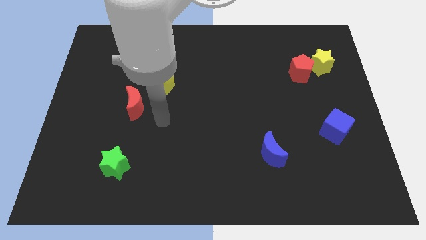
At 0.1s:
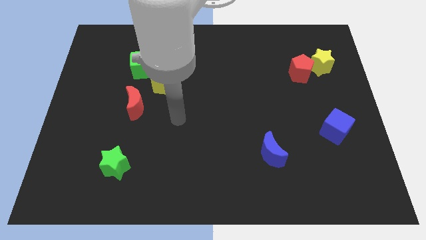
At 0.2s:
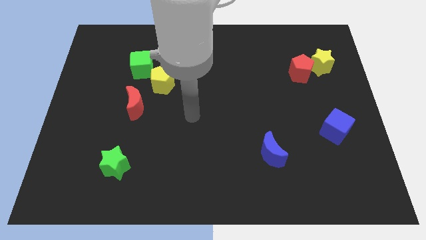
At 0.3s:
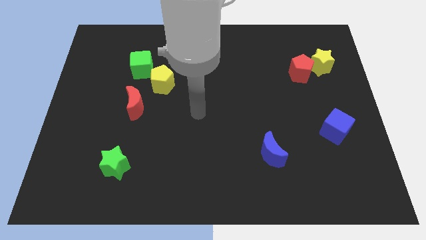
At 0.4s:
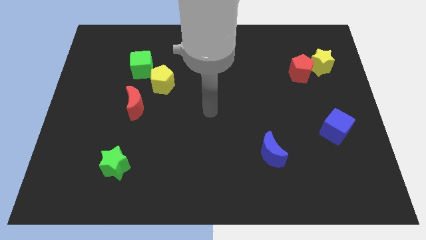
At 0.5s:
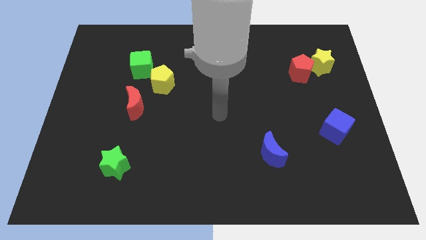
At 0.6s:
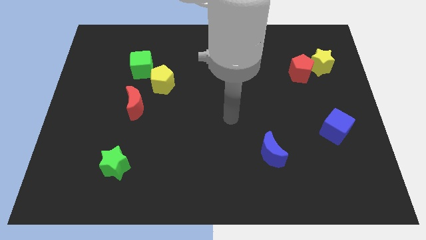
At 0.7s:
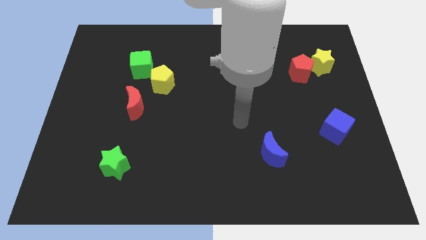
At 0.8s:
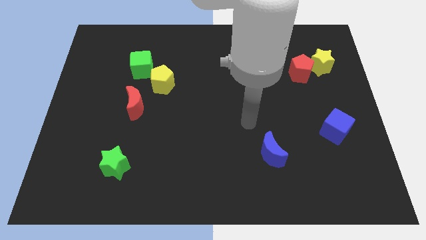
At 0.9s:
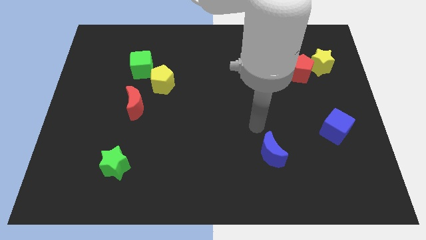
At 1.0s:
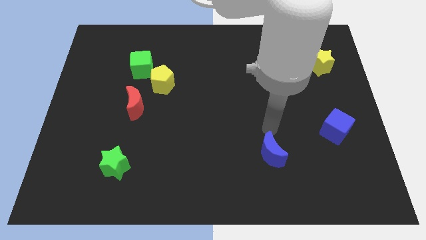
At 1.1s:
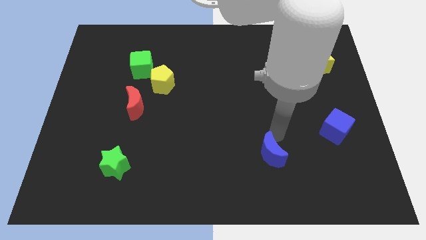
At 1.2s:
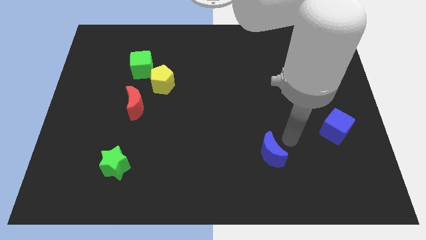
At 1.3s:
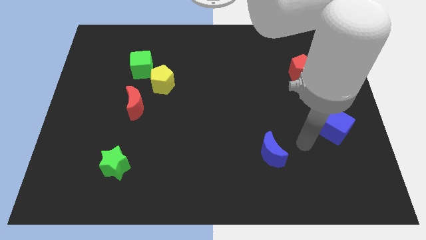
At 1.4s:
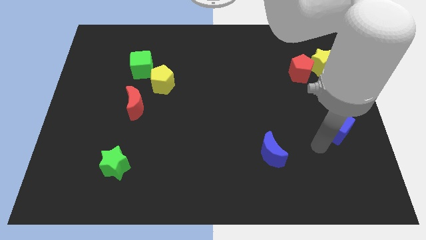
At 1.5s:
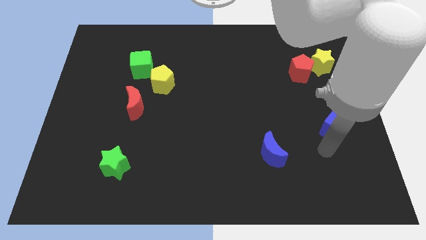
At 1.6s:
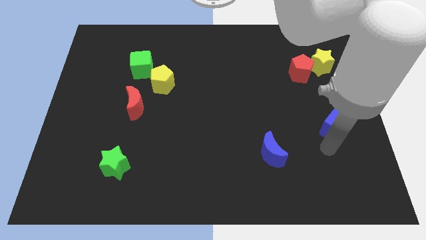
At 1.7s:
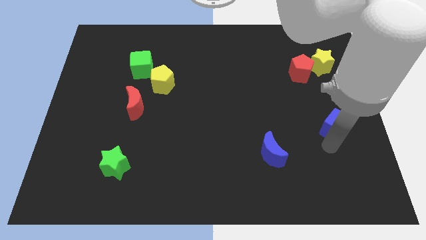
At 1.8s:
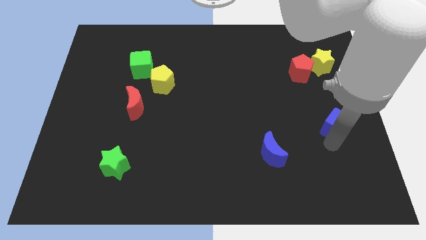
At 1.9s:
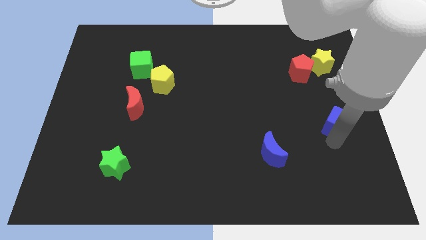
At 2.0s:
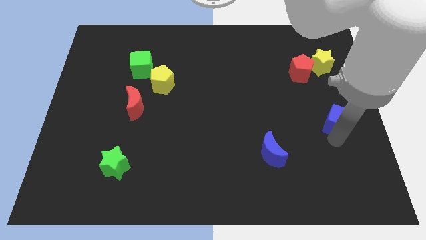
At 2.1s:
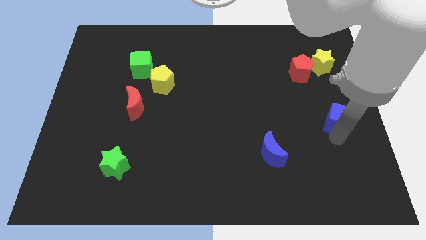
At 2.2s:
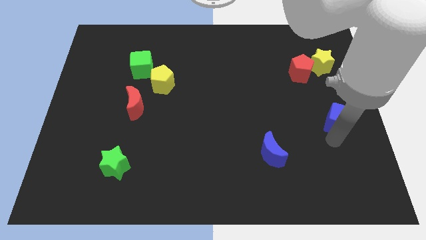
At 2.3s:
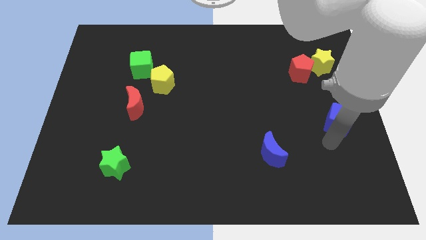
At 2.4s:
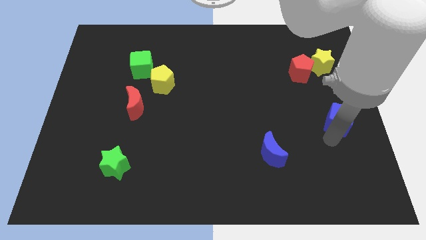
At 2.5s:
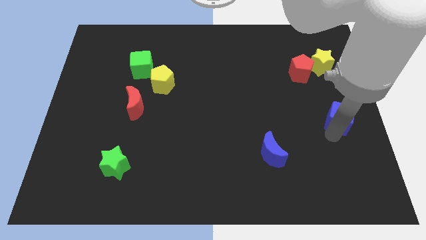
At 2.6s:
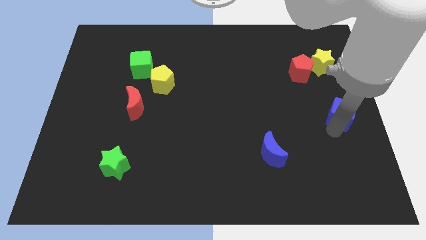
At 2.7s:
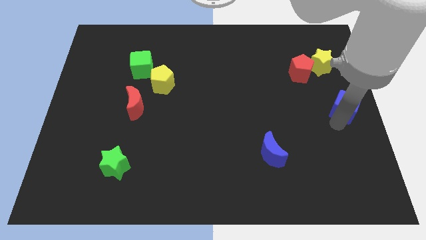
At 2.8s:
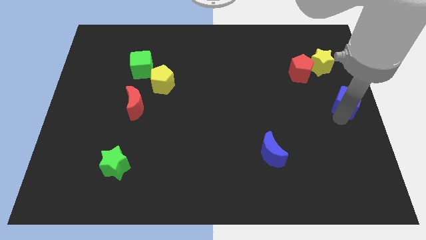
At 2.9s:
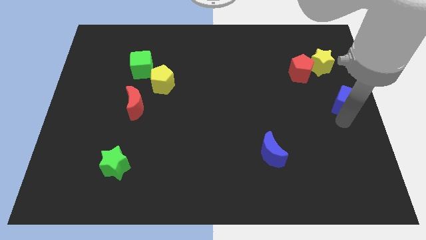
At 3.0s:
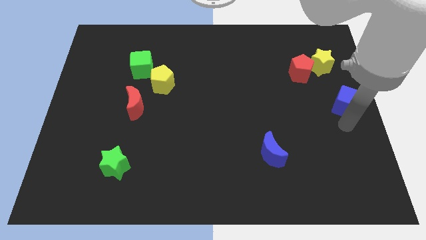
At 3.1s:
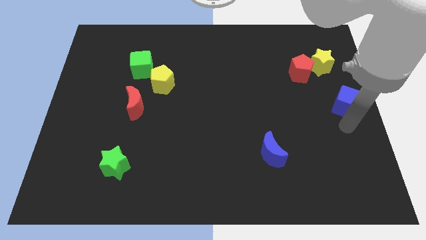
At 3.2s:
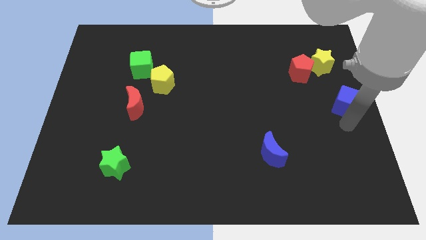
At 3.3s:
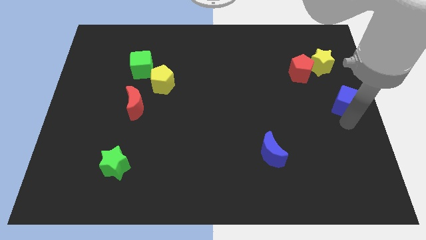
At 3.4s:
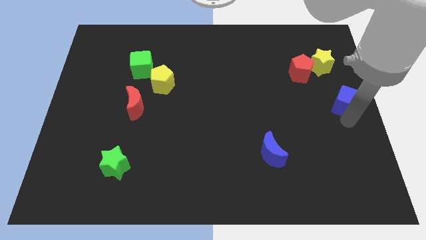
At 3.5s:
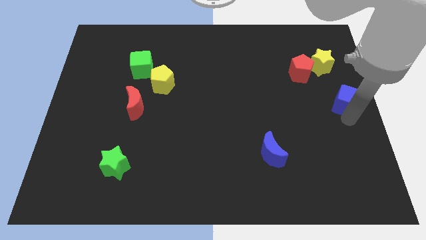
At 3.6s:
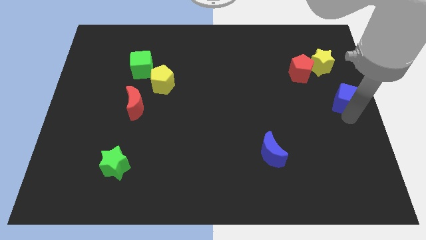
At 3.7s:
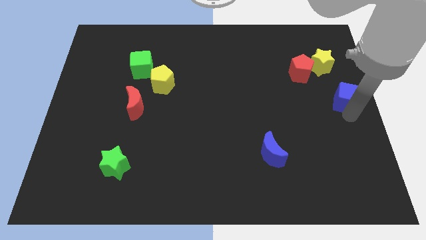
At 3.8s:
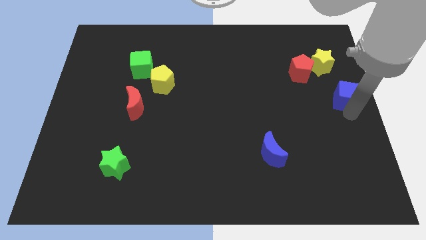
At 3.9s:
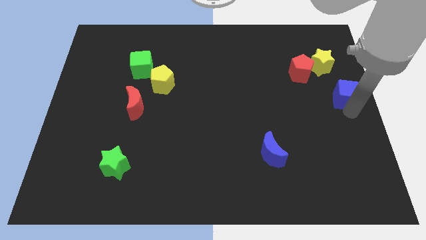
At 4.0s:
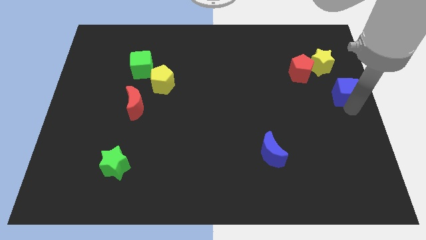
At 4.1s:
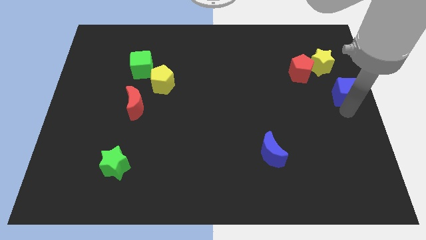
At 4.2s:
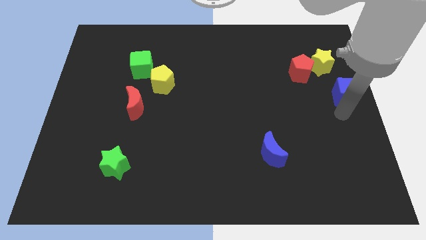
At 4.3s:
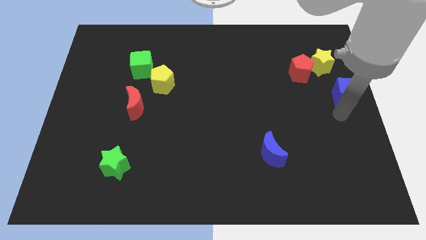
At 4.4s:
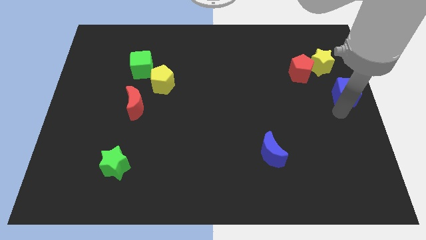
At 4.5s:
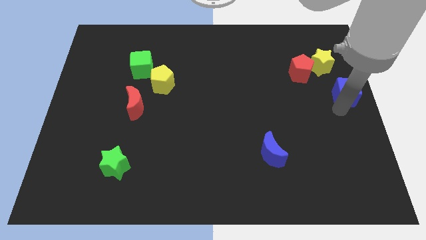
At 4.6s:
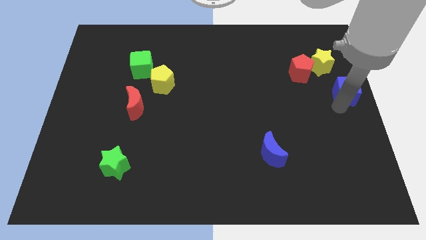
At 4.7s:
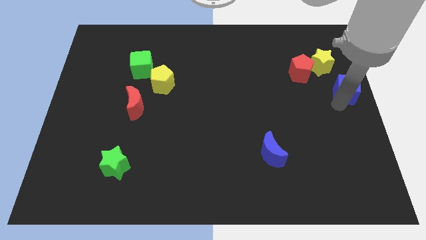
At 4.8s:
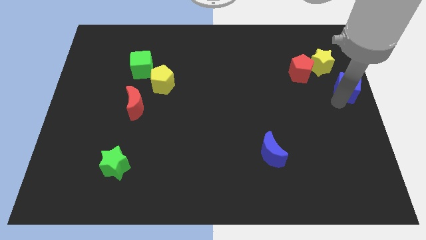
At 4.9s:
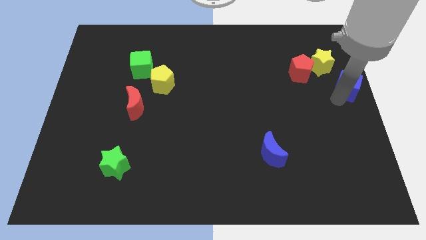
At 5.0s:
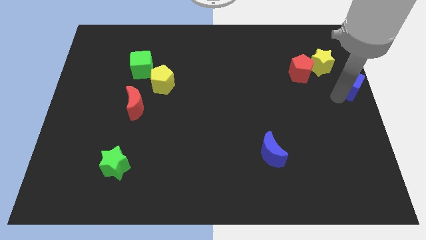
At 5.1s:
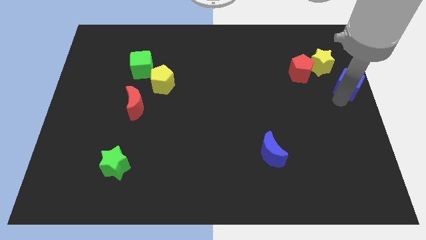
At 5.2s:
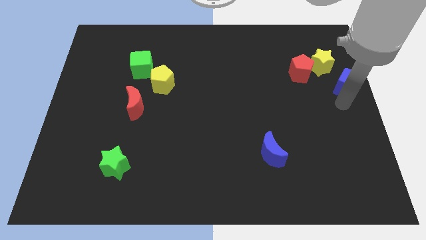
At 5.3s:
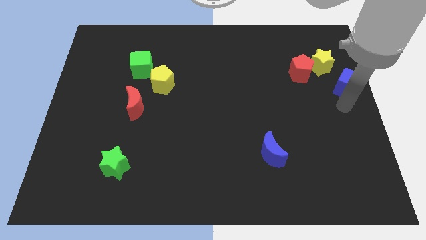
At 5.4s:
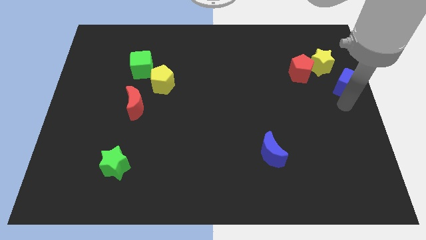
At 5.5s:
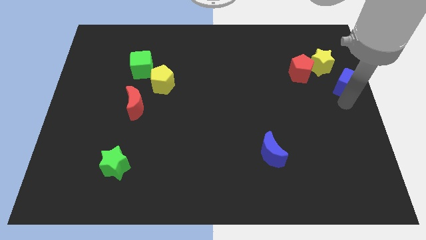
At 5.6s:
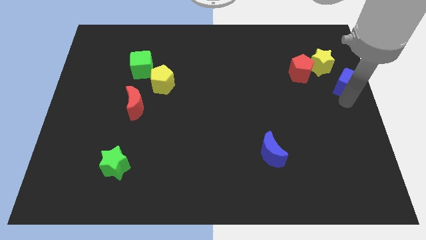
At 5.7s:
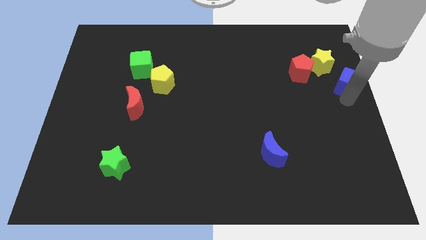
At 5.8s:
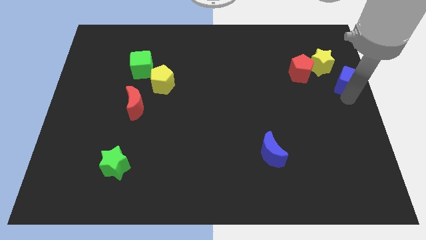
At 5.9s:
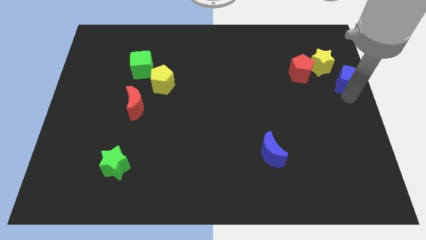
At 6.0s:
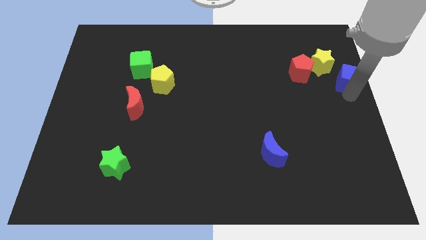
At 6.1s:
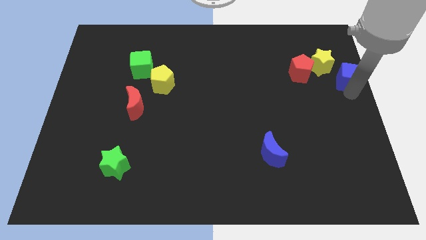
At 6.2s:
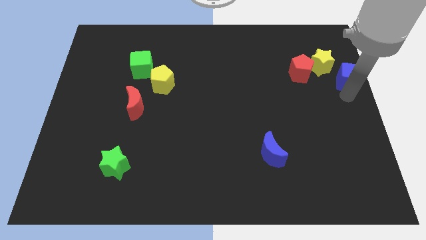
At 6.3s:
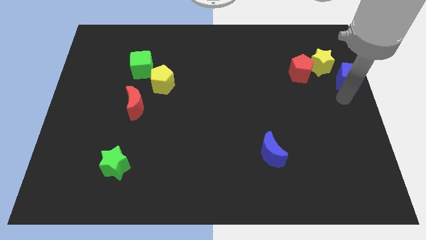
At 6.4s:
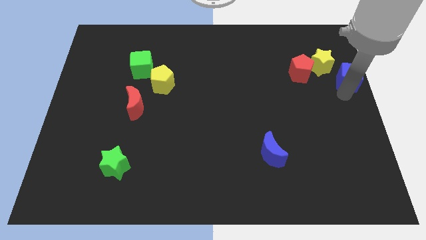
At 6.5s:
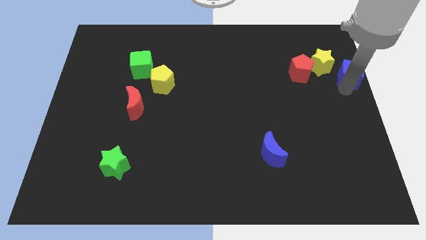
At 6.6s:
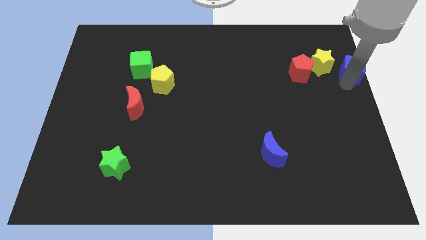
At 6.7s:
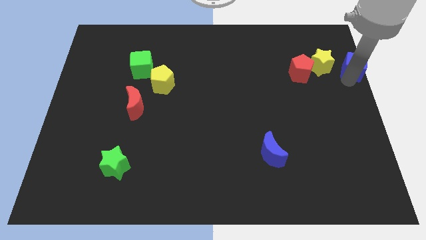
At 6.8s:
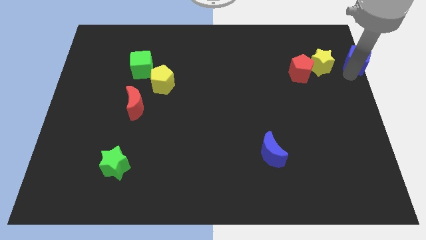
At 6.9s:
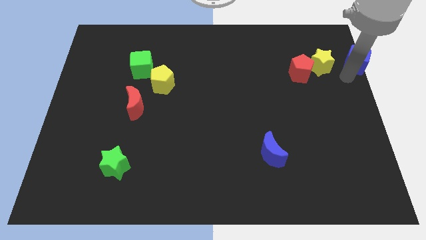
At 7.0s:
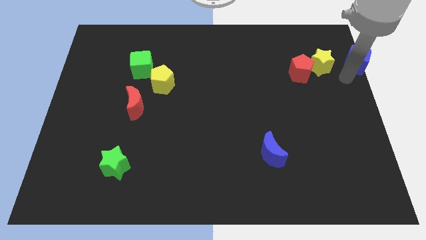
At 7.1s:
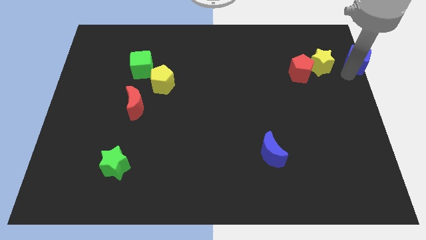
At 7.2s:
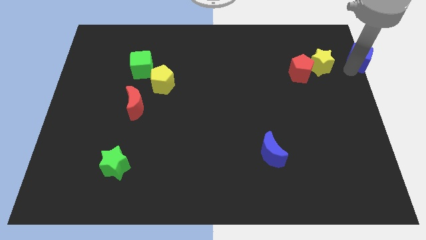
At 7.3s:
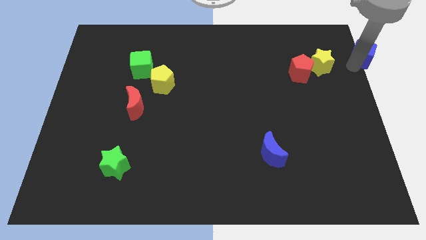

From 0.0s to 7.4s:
push the blue cube to the upper right corner
